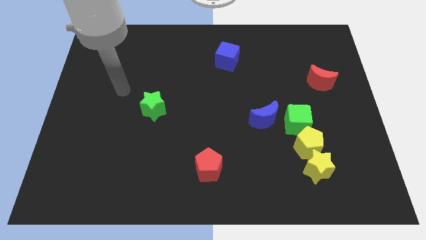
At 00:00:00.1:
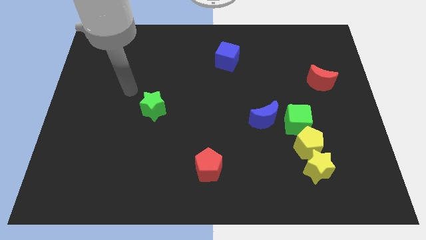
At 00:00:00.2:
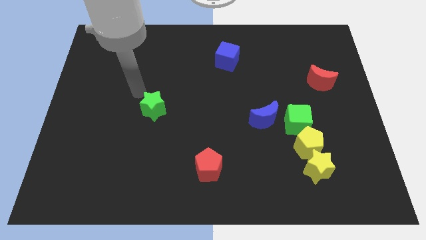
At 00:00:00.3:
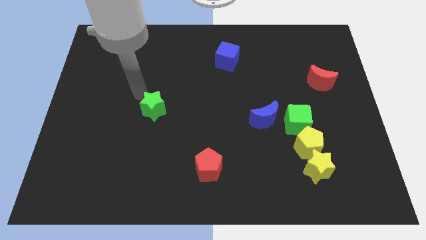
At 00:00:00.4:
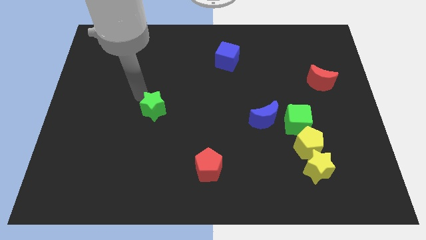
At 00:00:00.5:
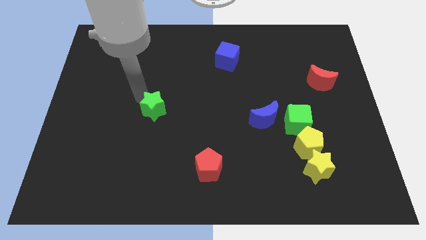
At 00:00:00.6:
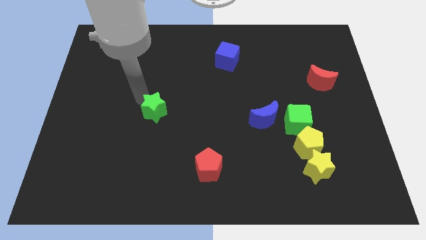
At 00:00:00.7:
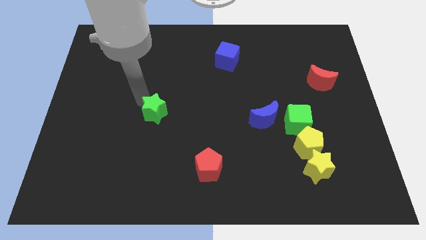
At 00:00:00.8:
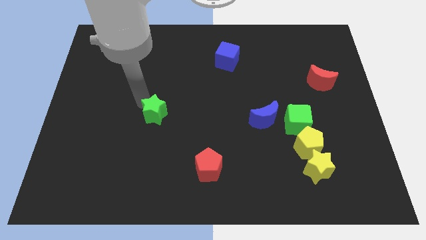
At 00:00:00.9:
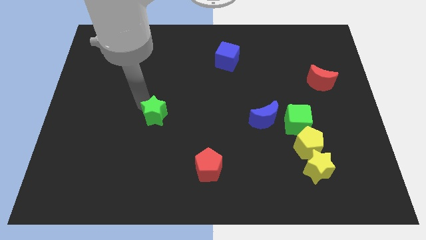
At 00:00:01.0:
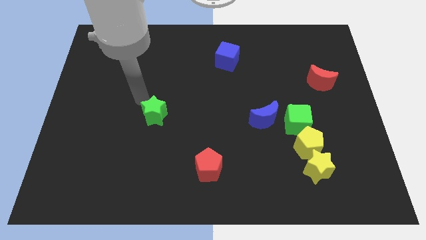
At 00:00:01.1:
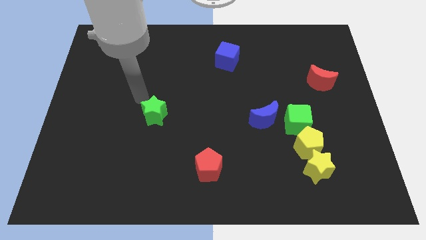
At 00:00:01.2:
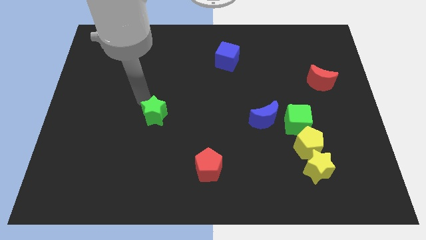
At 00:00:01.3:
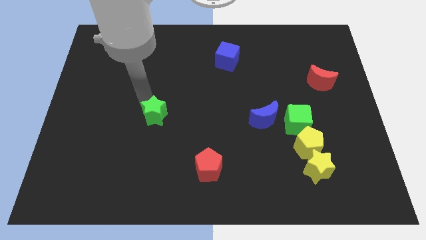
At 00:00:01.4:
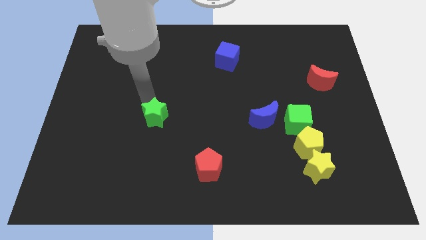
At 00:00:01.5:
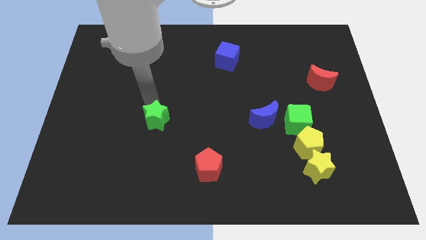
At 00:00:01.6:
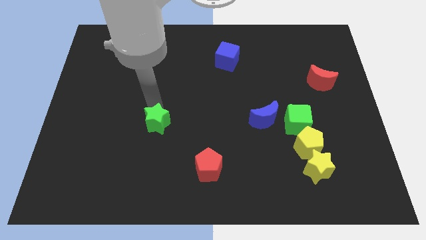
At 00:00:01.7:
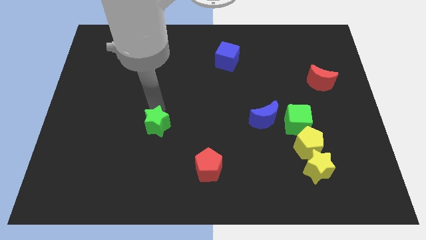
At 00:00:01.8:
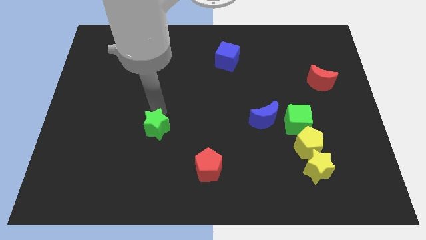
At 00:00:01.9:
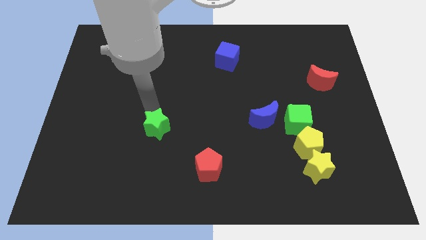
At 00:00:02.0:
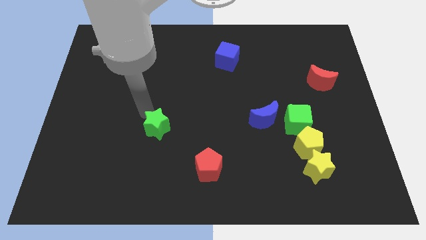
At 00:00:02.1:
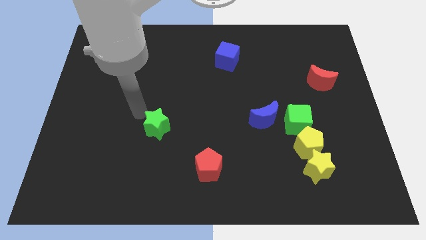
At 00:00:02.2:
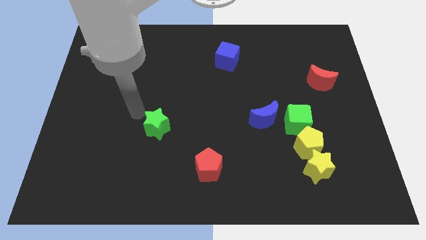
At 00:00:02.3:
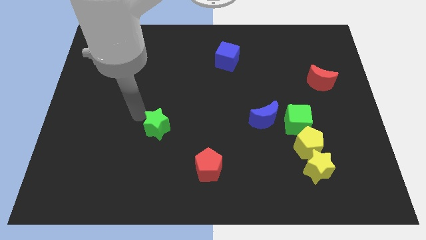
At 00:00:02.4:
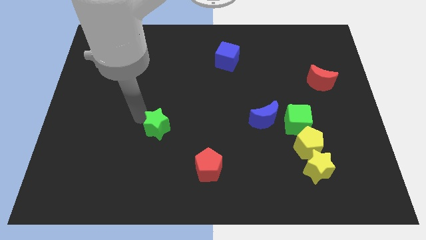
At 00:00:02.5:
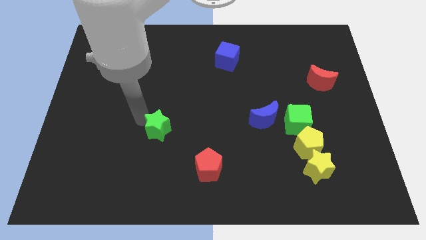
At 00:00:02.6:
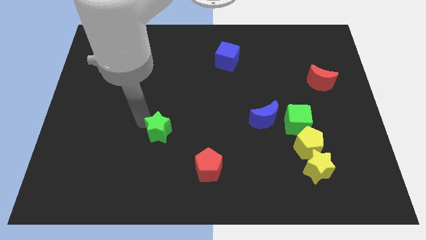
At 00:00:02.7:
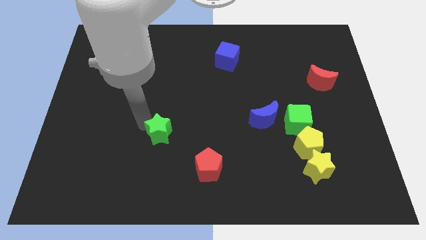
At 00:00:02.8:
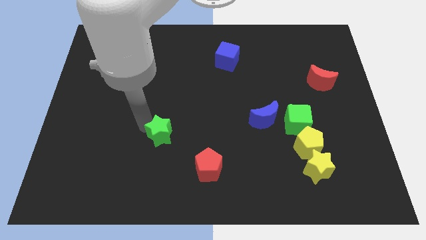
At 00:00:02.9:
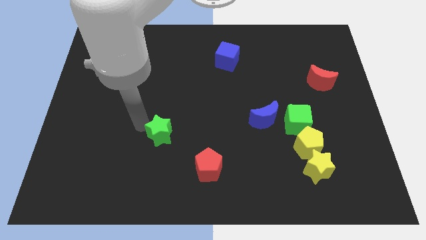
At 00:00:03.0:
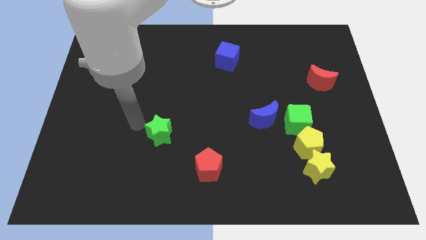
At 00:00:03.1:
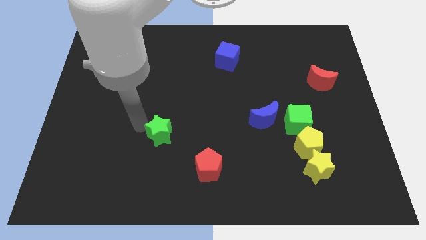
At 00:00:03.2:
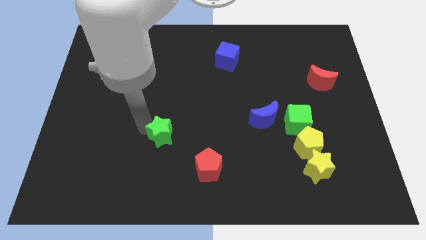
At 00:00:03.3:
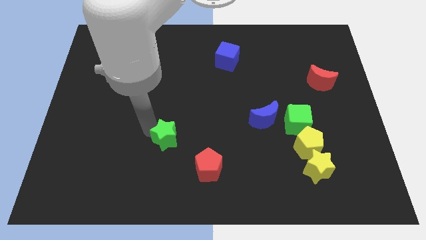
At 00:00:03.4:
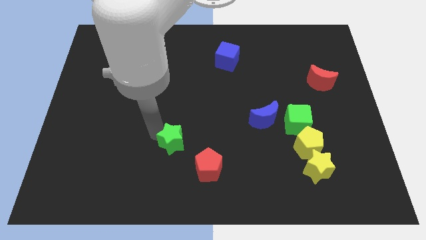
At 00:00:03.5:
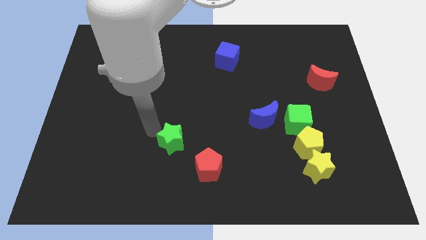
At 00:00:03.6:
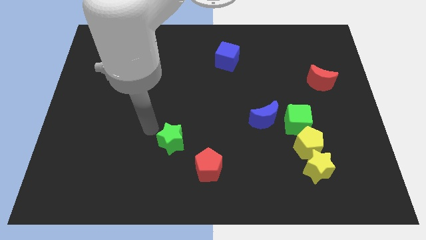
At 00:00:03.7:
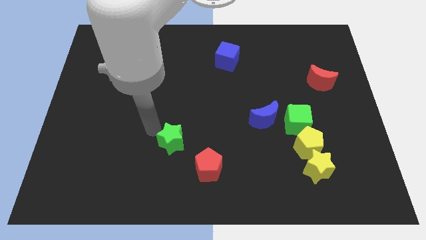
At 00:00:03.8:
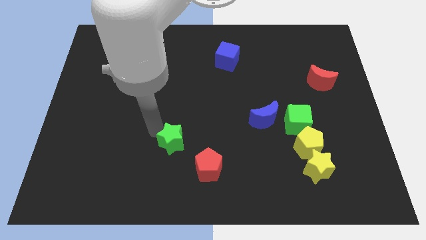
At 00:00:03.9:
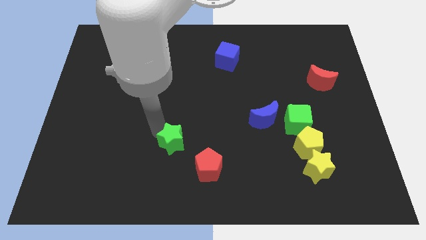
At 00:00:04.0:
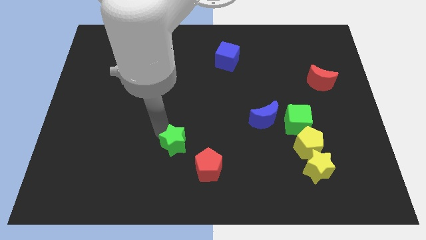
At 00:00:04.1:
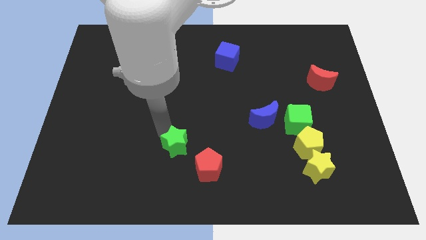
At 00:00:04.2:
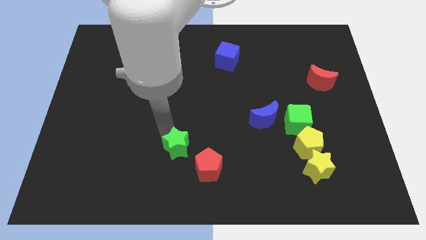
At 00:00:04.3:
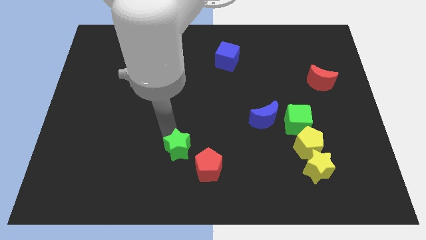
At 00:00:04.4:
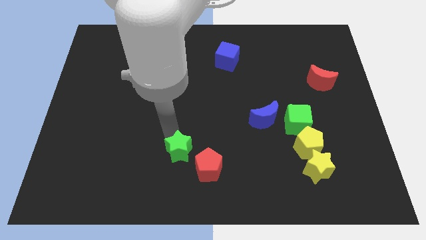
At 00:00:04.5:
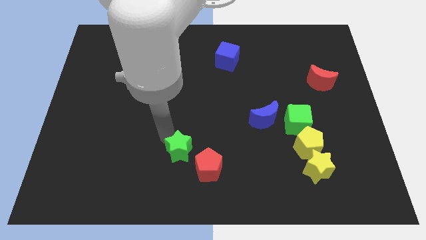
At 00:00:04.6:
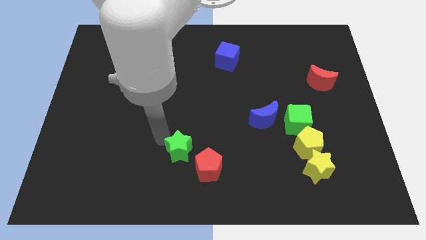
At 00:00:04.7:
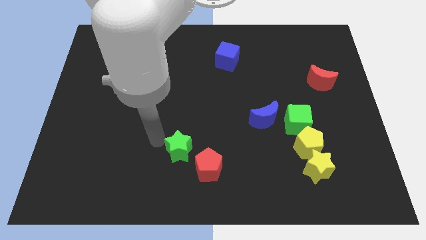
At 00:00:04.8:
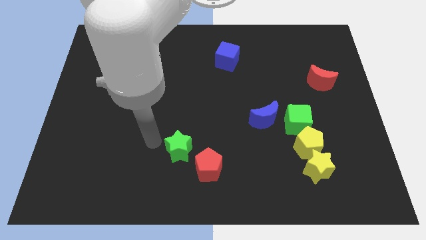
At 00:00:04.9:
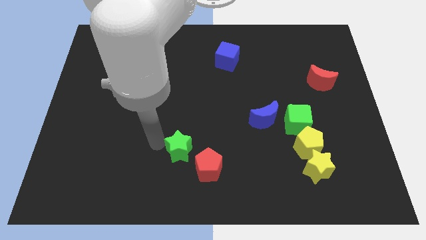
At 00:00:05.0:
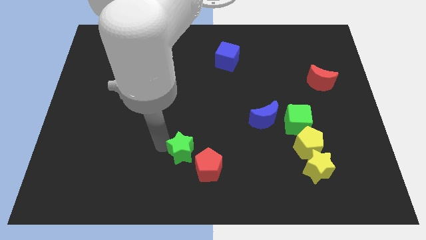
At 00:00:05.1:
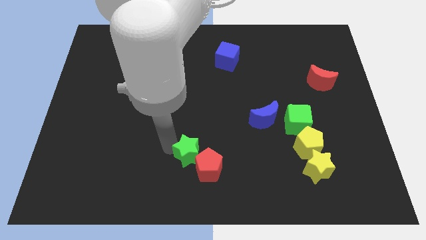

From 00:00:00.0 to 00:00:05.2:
push the green star next to the red pentagon

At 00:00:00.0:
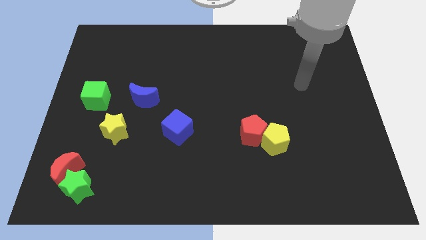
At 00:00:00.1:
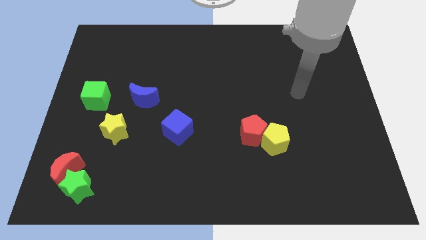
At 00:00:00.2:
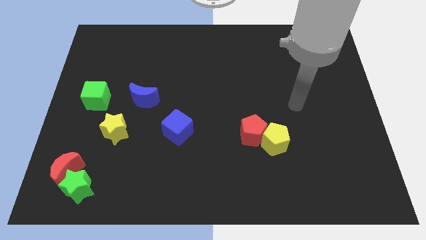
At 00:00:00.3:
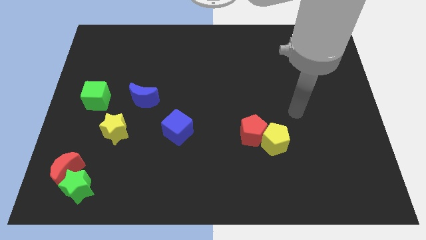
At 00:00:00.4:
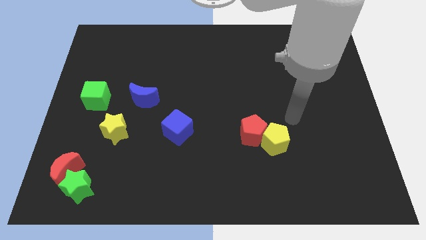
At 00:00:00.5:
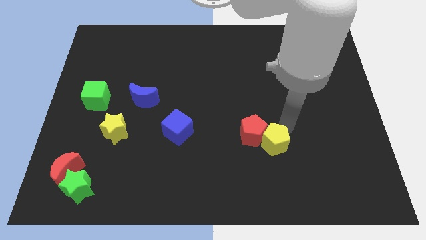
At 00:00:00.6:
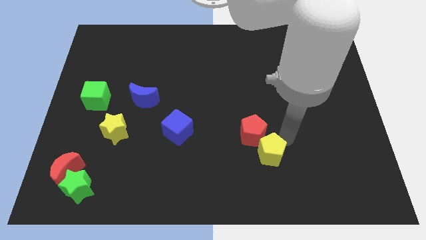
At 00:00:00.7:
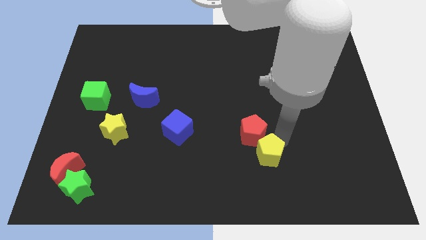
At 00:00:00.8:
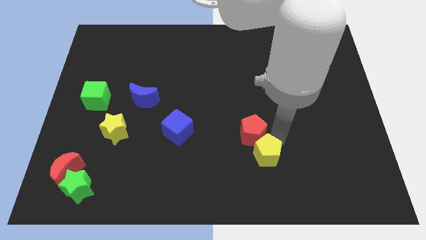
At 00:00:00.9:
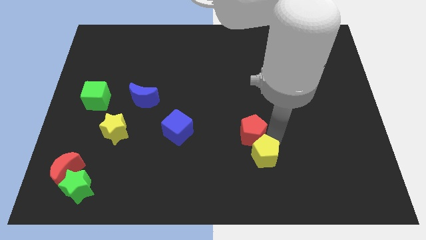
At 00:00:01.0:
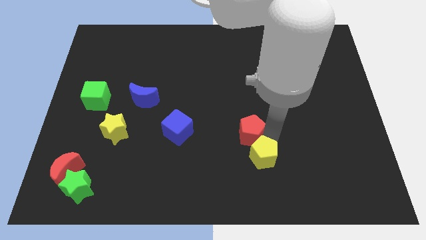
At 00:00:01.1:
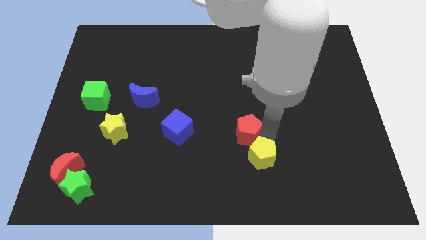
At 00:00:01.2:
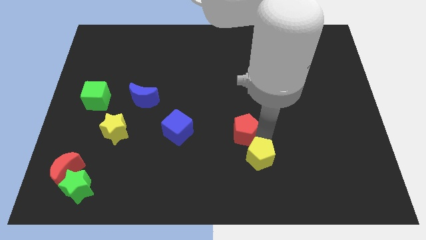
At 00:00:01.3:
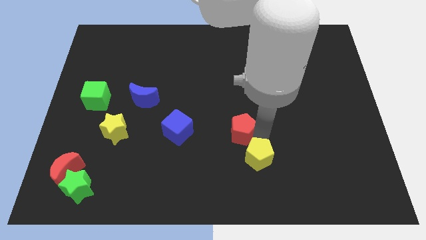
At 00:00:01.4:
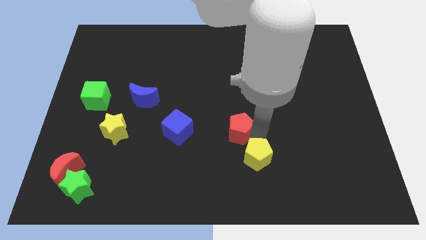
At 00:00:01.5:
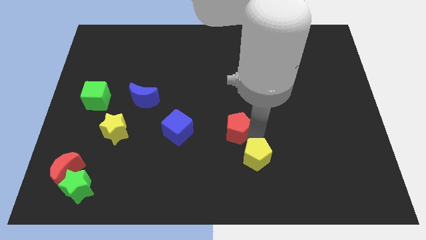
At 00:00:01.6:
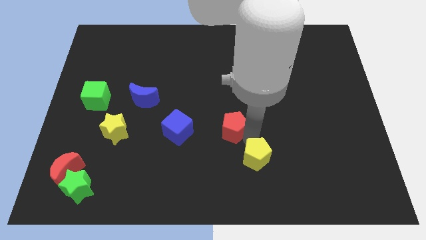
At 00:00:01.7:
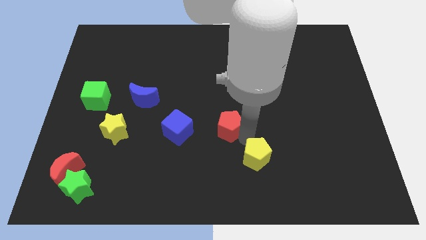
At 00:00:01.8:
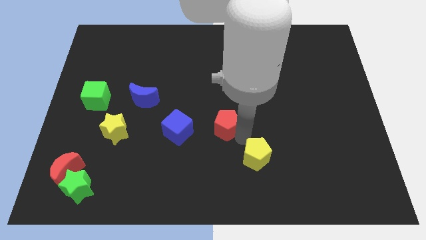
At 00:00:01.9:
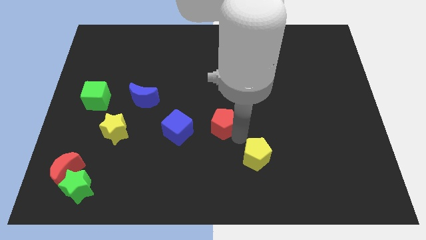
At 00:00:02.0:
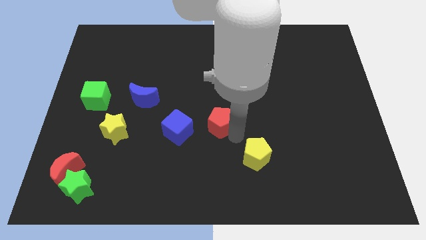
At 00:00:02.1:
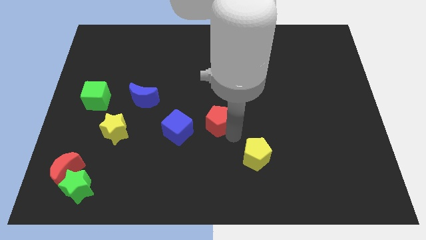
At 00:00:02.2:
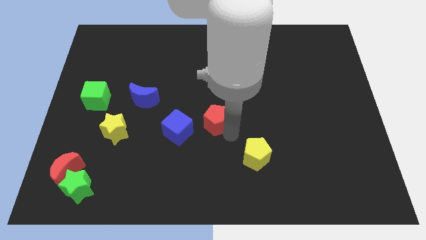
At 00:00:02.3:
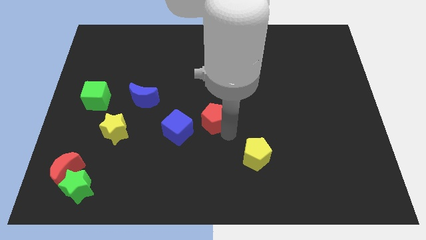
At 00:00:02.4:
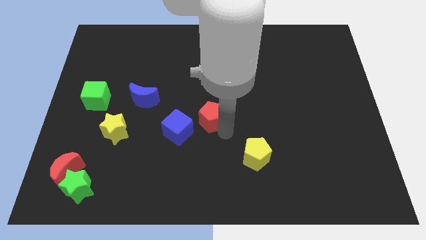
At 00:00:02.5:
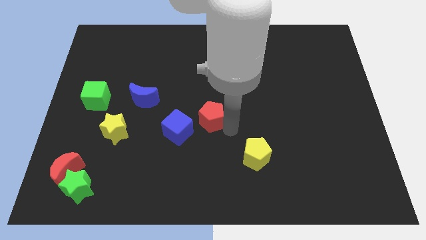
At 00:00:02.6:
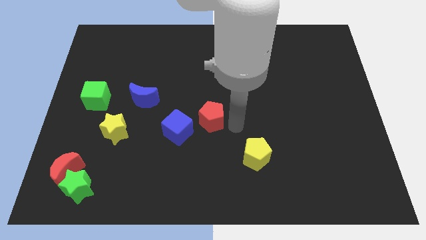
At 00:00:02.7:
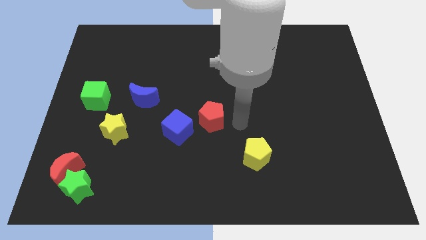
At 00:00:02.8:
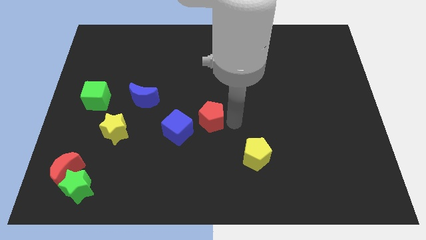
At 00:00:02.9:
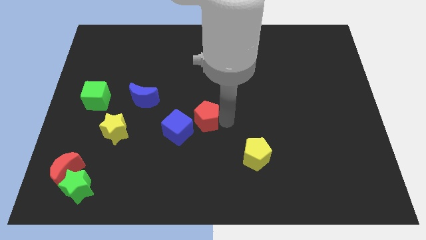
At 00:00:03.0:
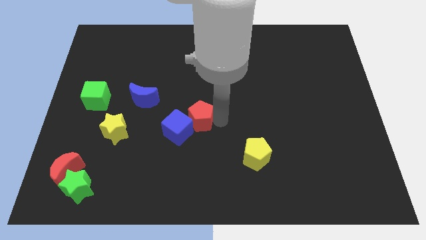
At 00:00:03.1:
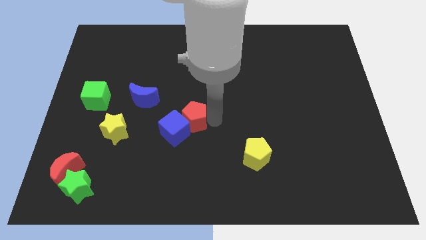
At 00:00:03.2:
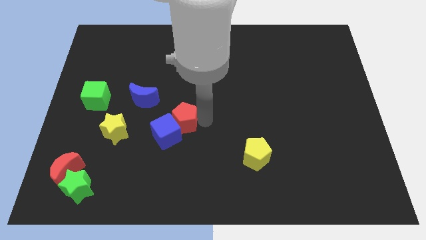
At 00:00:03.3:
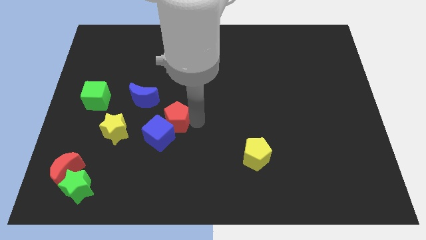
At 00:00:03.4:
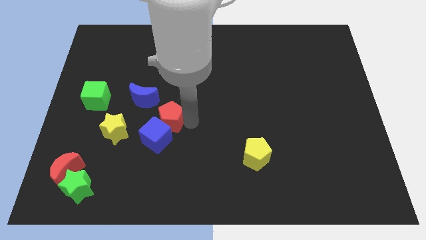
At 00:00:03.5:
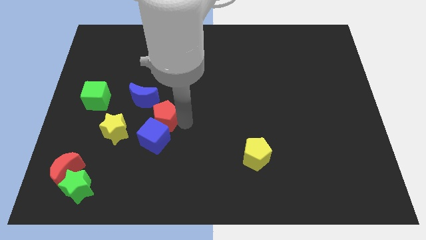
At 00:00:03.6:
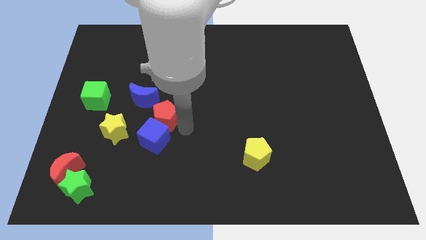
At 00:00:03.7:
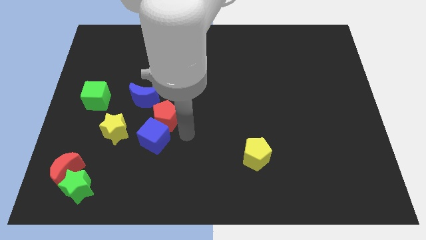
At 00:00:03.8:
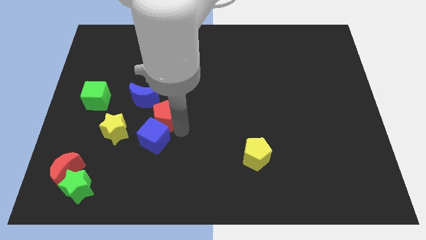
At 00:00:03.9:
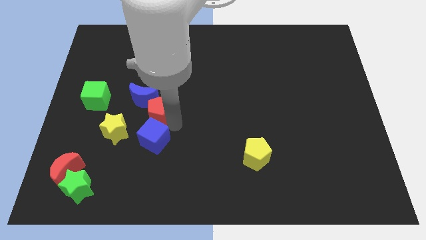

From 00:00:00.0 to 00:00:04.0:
move the red pentagon next to the blue moon
